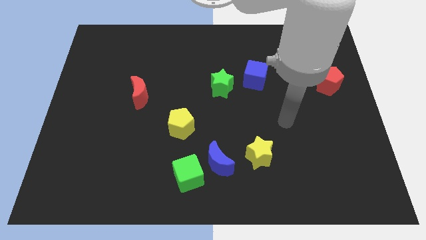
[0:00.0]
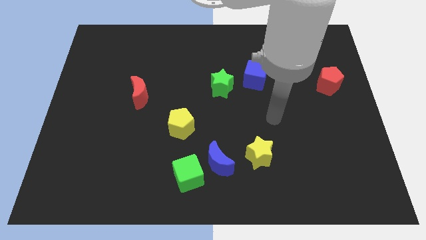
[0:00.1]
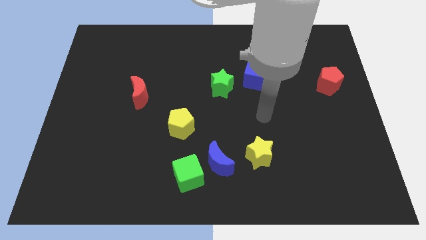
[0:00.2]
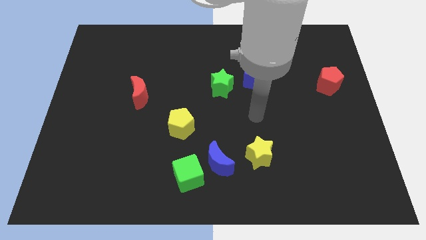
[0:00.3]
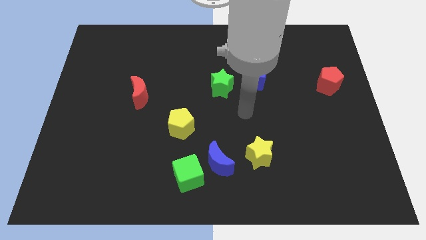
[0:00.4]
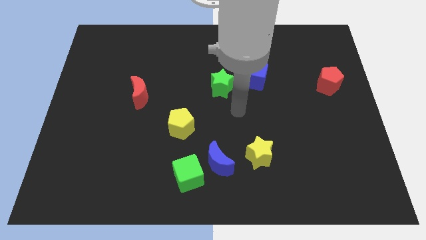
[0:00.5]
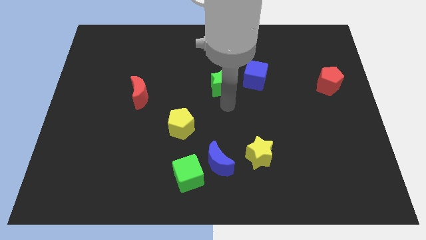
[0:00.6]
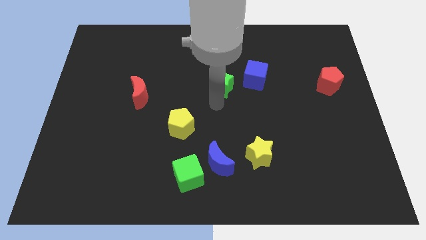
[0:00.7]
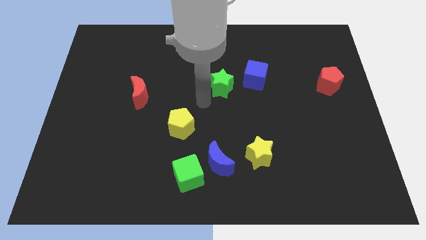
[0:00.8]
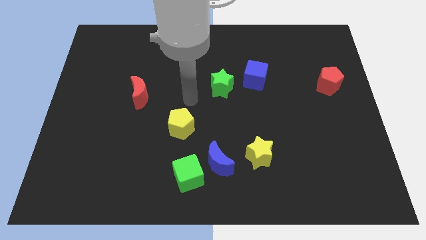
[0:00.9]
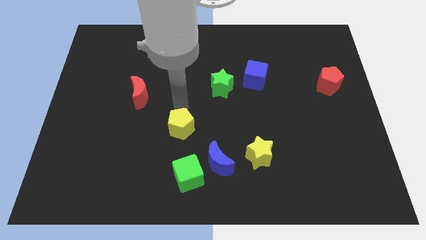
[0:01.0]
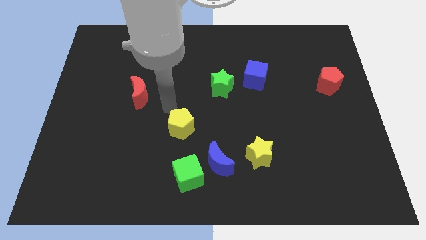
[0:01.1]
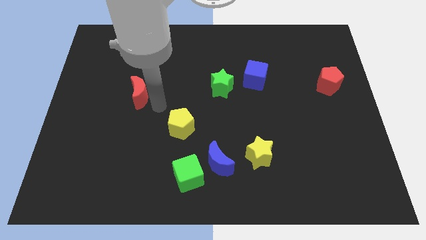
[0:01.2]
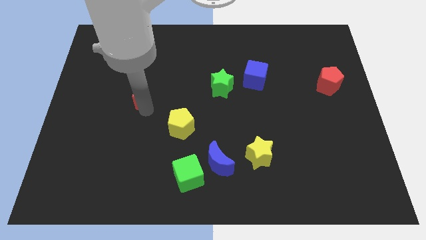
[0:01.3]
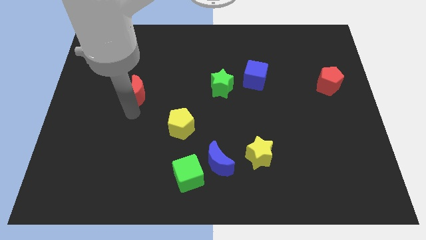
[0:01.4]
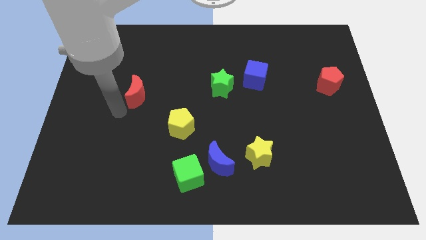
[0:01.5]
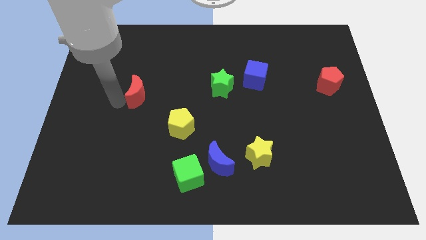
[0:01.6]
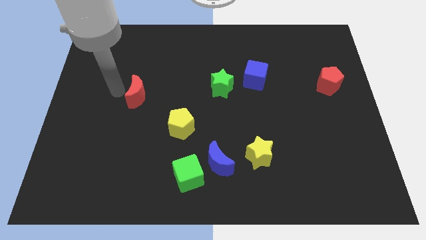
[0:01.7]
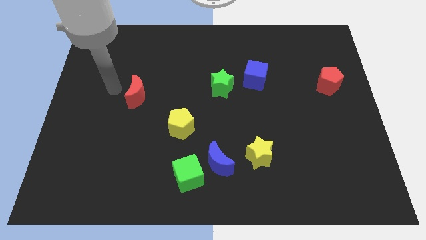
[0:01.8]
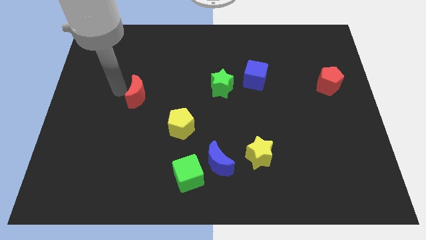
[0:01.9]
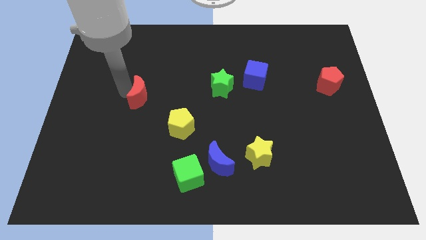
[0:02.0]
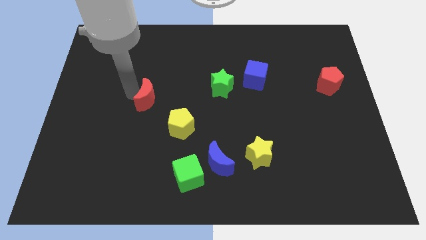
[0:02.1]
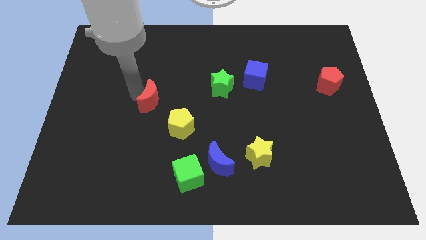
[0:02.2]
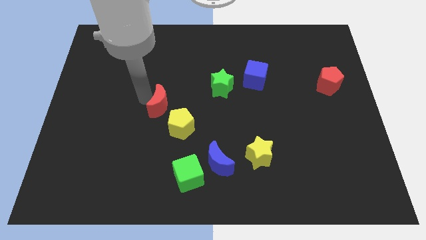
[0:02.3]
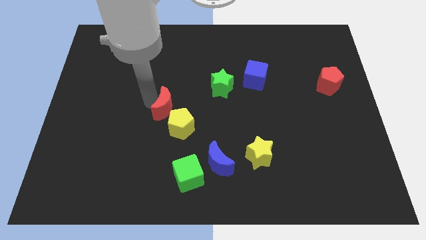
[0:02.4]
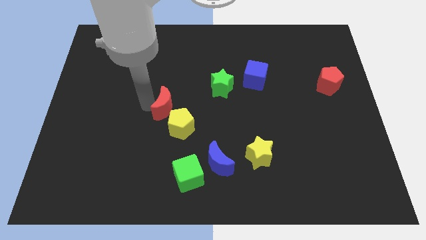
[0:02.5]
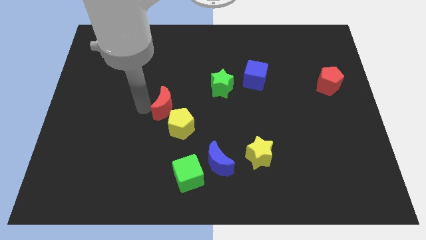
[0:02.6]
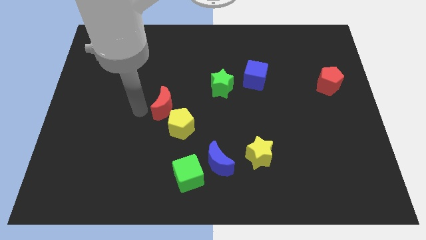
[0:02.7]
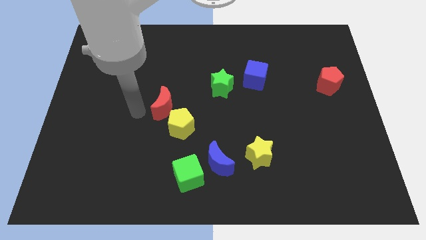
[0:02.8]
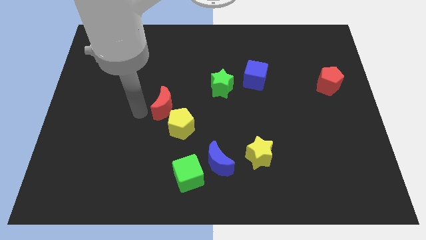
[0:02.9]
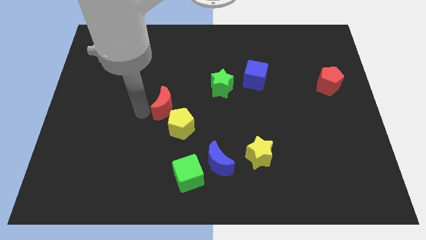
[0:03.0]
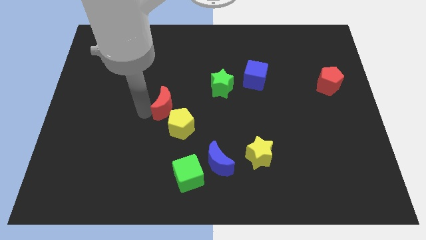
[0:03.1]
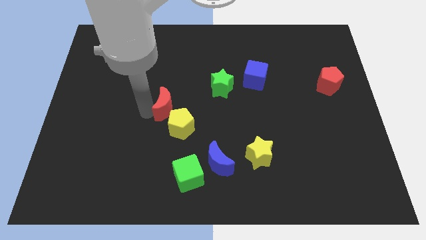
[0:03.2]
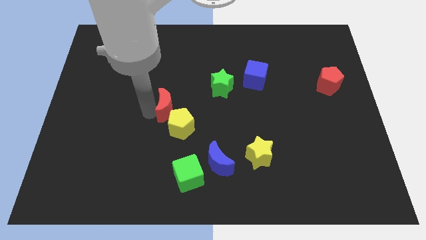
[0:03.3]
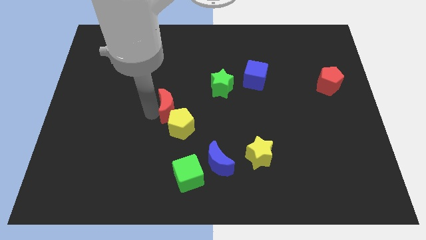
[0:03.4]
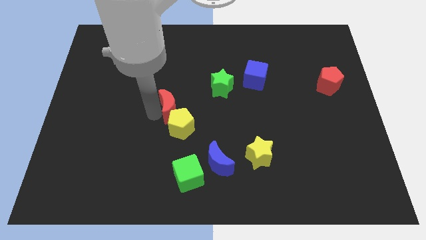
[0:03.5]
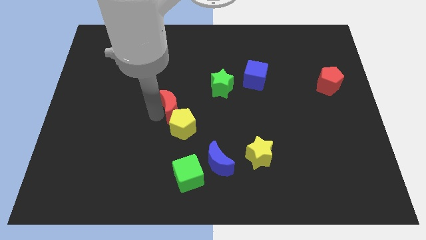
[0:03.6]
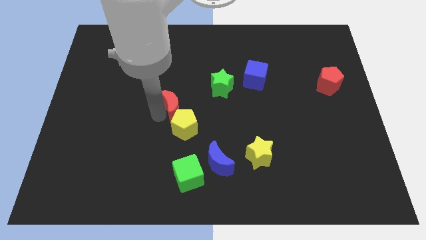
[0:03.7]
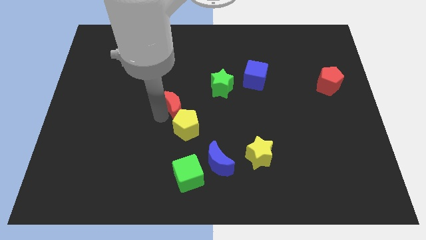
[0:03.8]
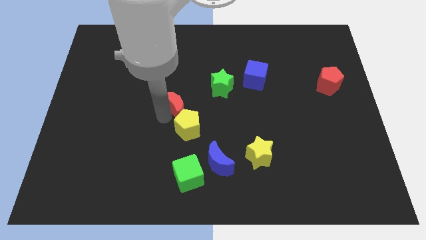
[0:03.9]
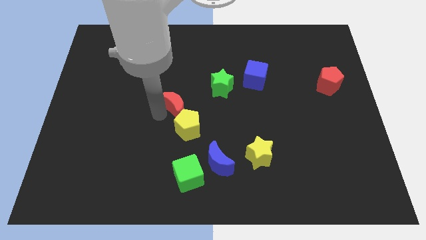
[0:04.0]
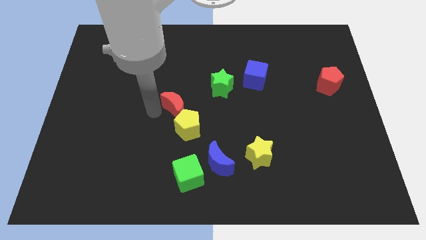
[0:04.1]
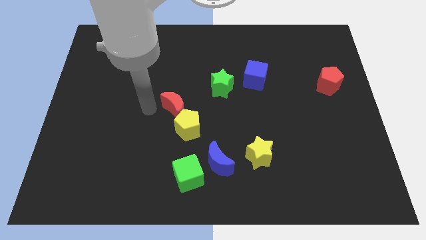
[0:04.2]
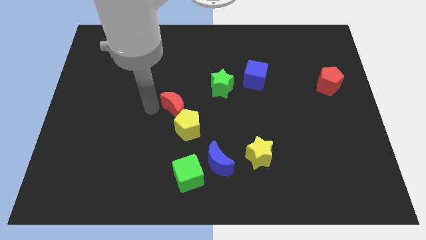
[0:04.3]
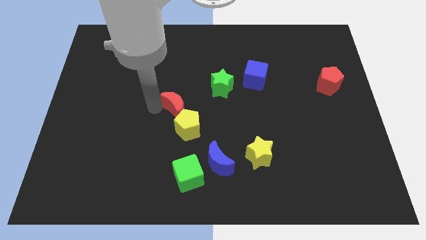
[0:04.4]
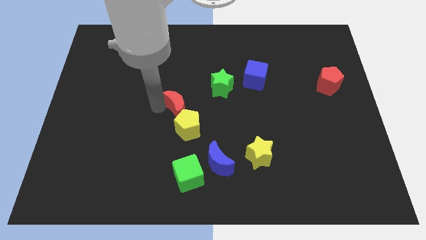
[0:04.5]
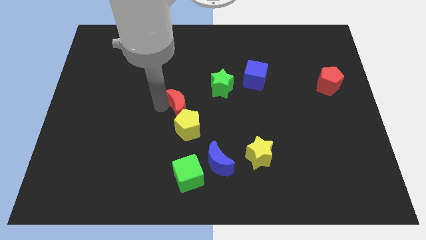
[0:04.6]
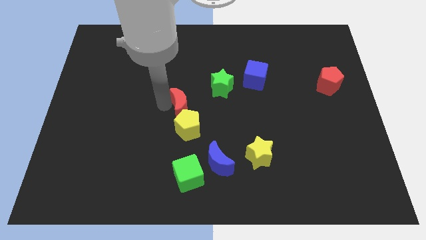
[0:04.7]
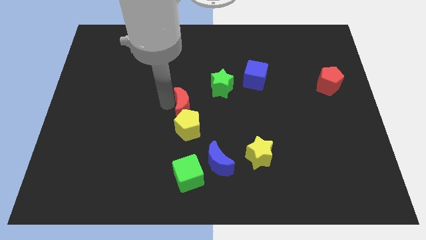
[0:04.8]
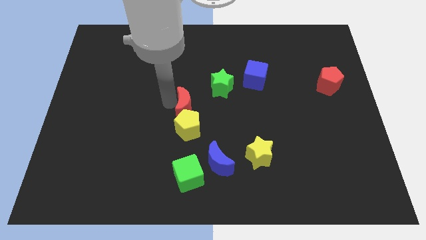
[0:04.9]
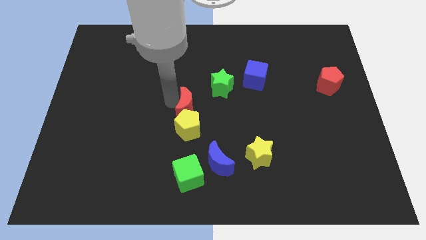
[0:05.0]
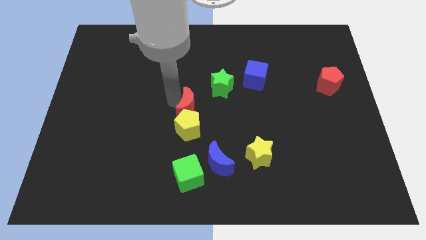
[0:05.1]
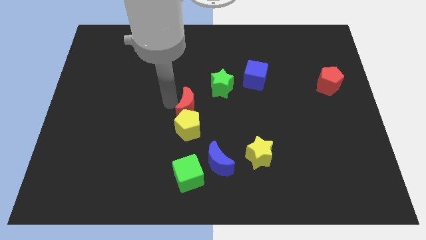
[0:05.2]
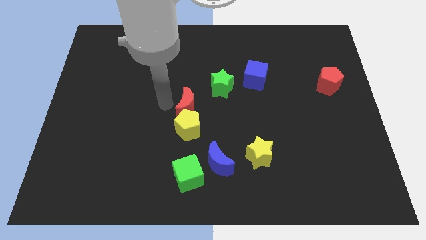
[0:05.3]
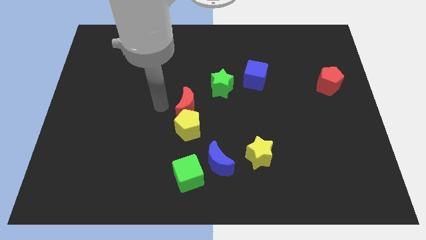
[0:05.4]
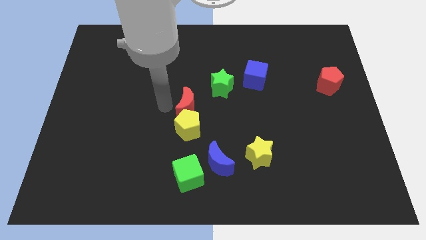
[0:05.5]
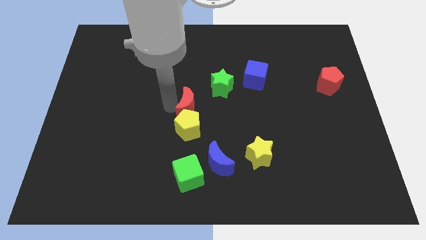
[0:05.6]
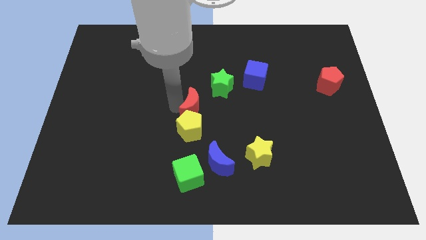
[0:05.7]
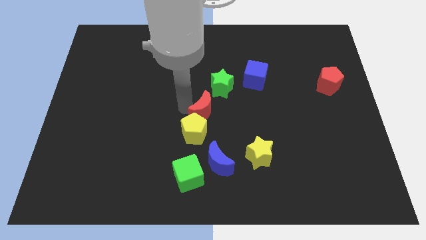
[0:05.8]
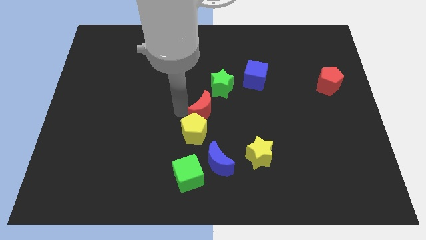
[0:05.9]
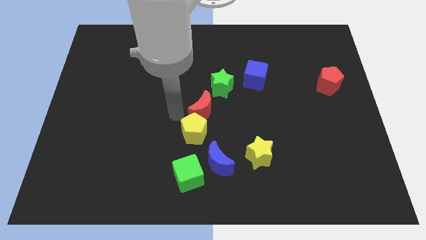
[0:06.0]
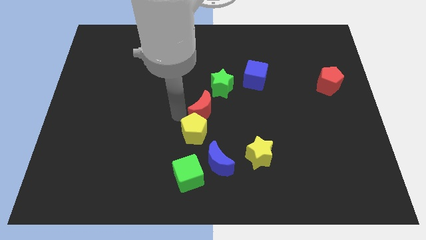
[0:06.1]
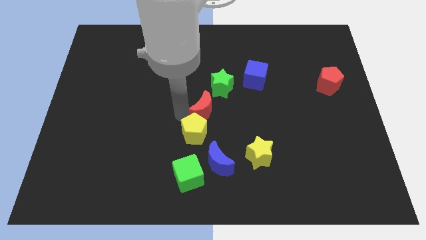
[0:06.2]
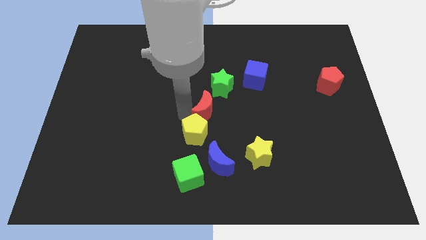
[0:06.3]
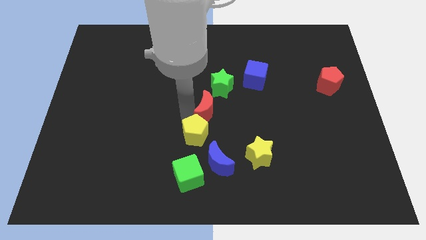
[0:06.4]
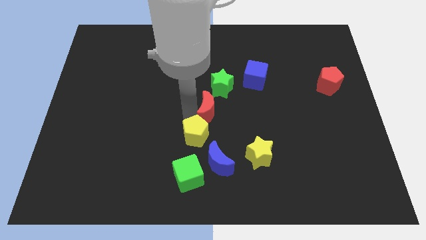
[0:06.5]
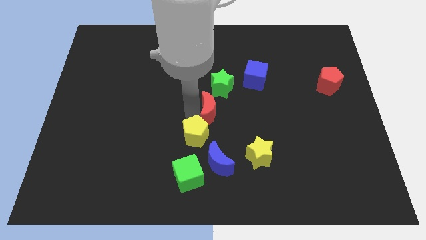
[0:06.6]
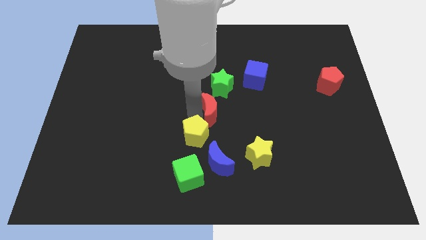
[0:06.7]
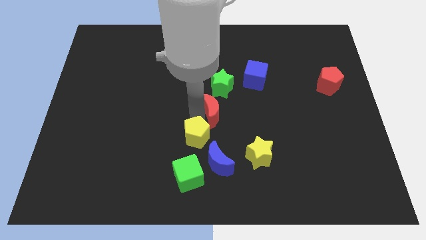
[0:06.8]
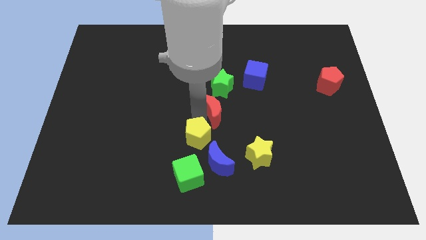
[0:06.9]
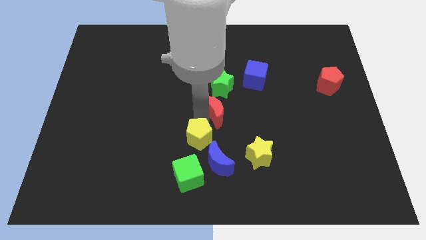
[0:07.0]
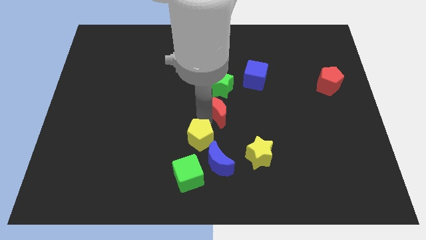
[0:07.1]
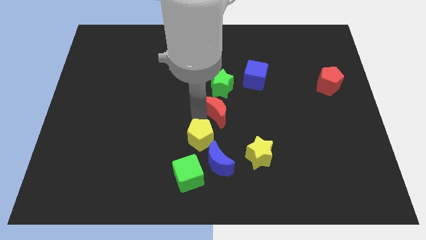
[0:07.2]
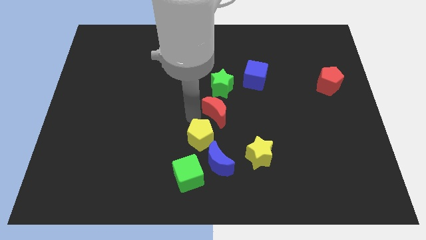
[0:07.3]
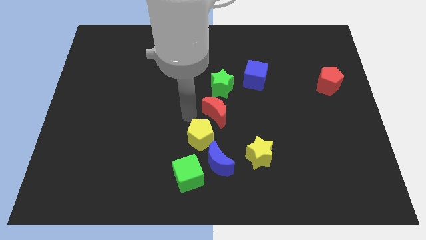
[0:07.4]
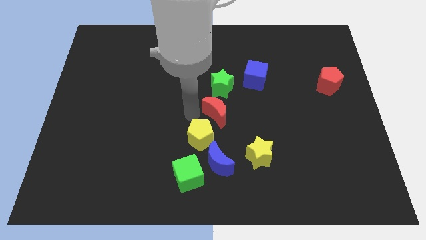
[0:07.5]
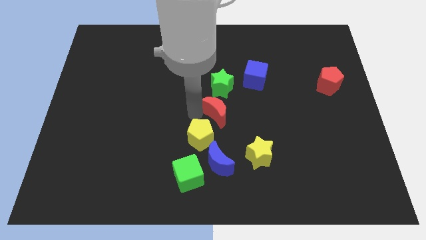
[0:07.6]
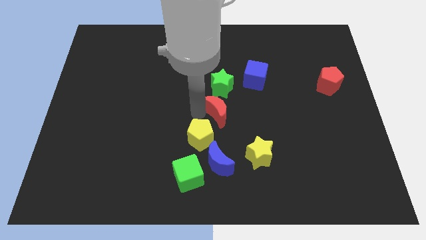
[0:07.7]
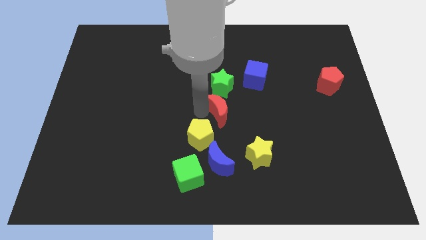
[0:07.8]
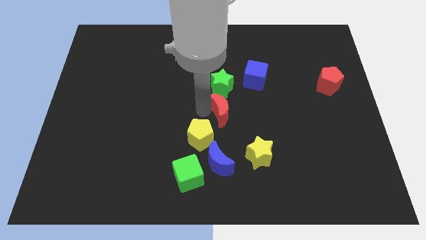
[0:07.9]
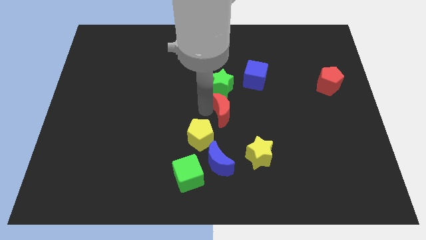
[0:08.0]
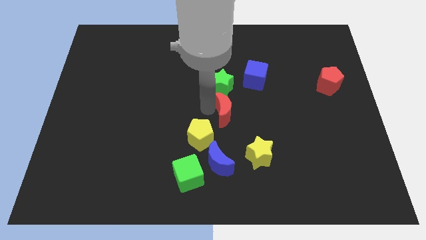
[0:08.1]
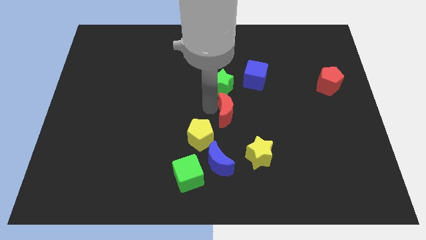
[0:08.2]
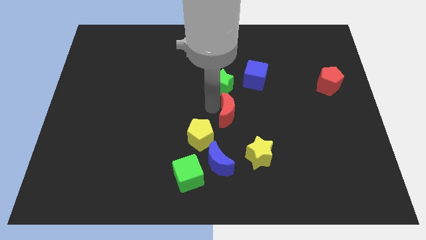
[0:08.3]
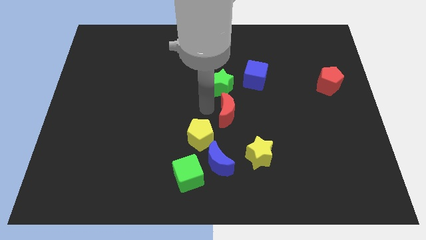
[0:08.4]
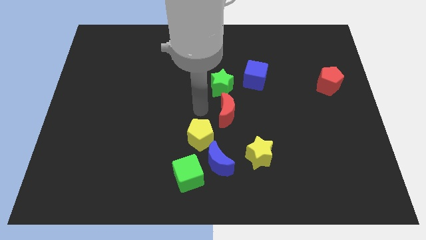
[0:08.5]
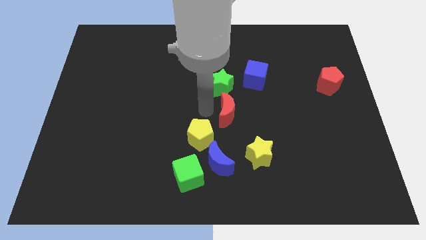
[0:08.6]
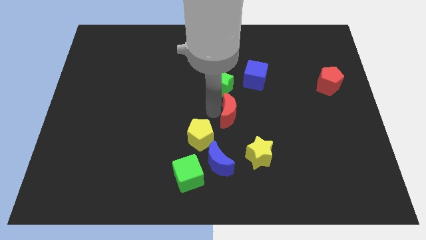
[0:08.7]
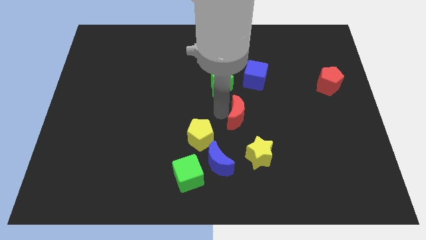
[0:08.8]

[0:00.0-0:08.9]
push the red moon to the top side of the yellow star

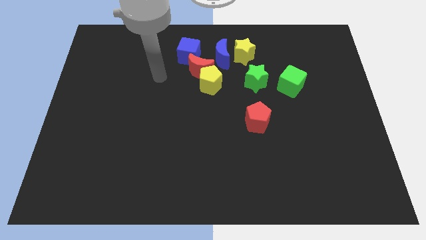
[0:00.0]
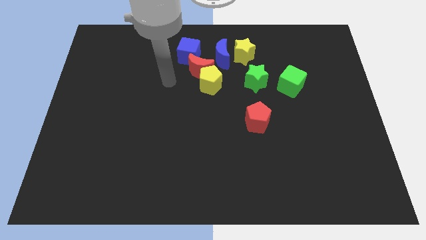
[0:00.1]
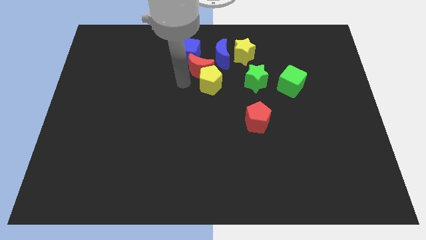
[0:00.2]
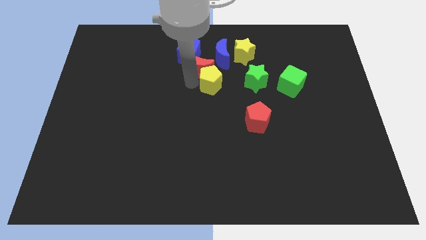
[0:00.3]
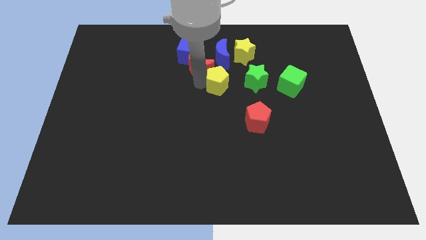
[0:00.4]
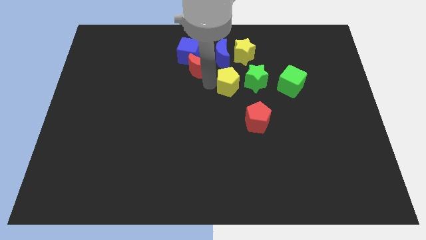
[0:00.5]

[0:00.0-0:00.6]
slide the yellow pentagon left of the green cube
